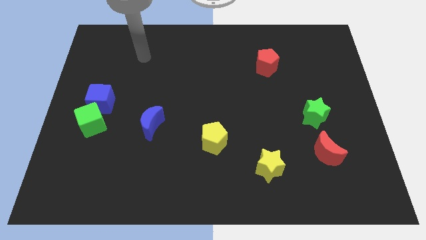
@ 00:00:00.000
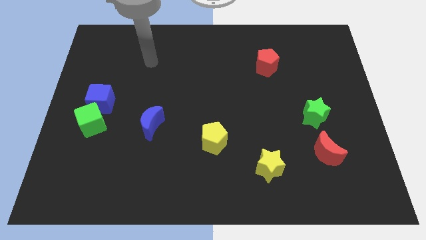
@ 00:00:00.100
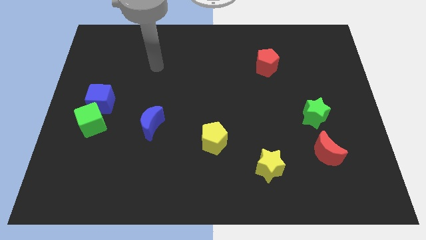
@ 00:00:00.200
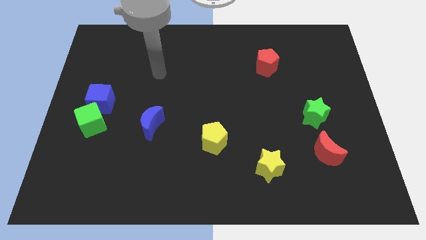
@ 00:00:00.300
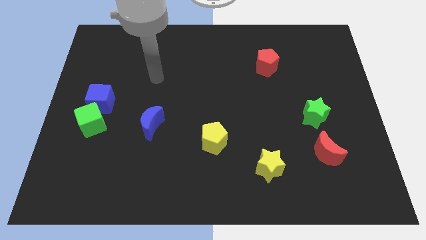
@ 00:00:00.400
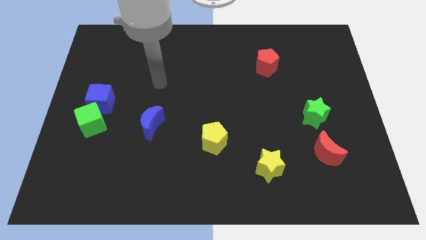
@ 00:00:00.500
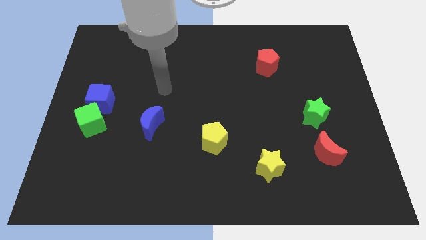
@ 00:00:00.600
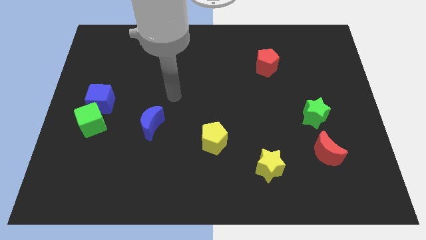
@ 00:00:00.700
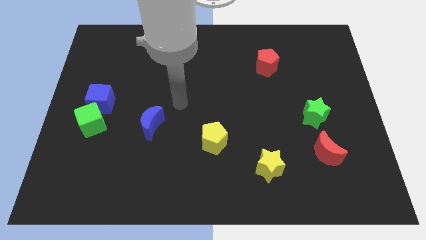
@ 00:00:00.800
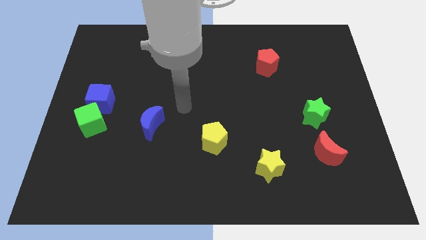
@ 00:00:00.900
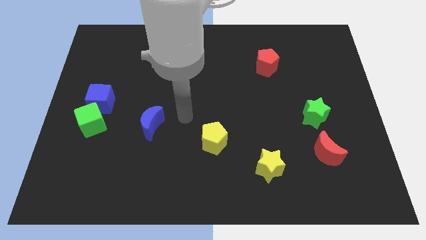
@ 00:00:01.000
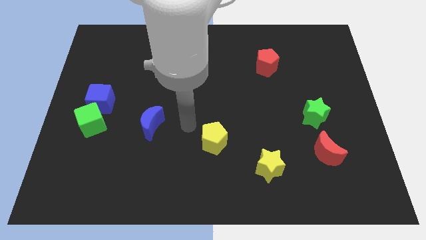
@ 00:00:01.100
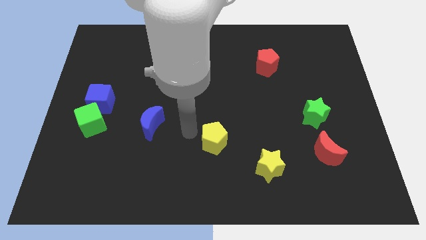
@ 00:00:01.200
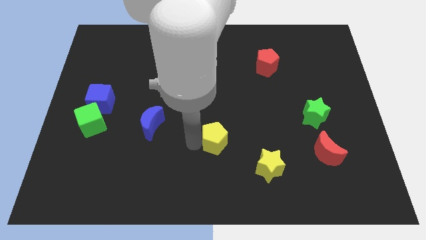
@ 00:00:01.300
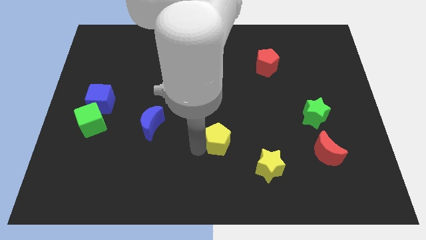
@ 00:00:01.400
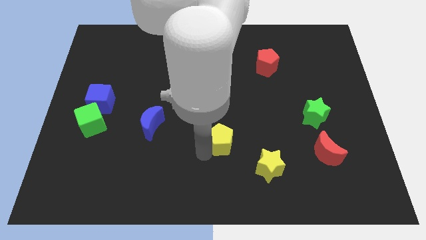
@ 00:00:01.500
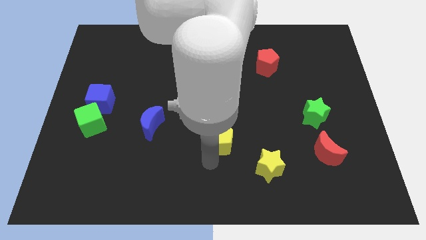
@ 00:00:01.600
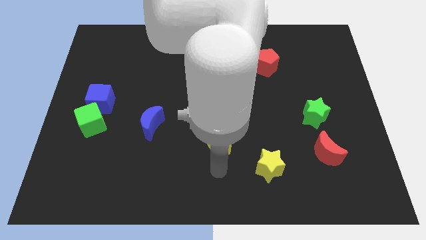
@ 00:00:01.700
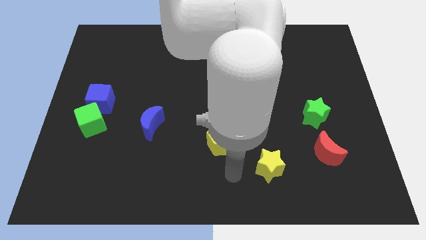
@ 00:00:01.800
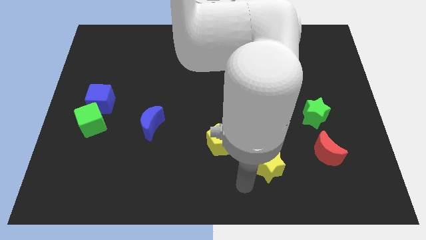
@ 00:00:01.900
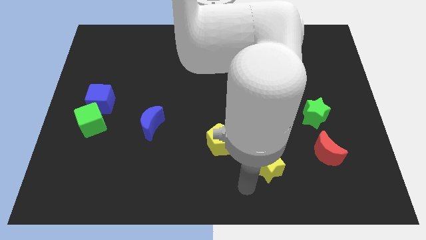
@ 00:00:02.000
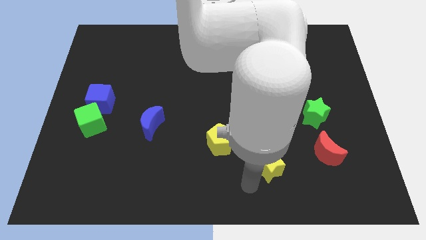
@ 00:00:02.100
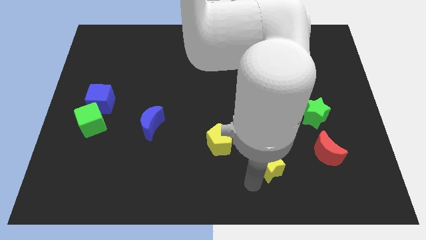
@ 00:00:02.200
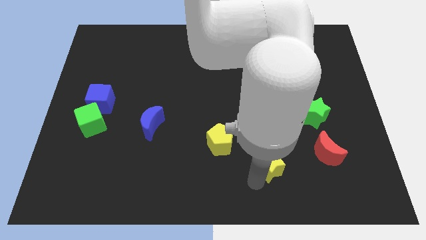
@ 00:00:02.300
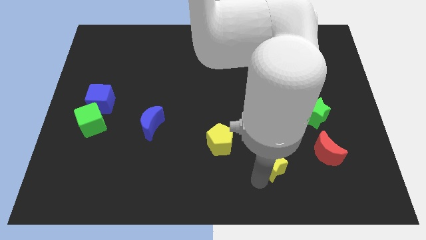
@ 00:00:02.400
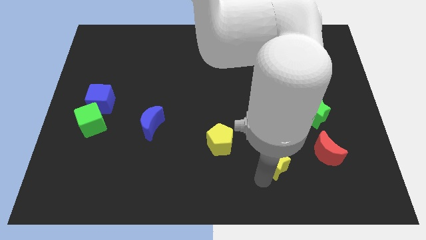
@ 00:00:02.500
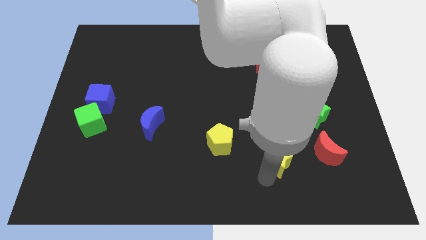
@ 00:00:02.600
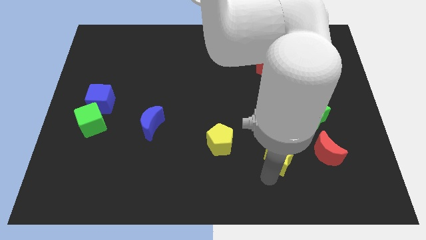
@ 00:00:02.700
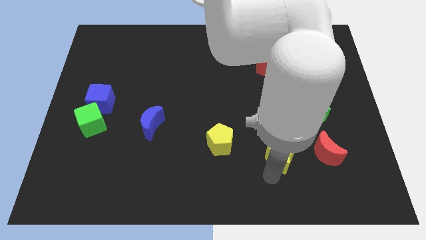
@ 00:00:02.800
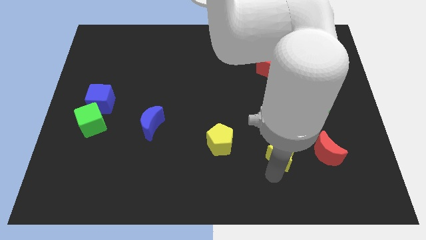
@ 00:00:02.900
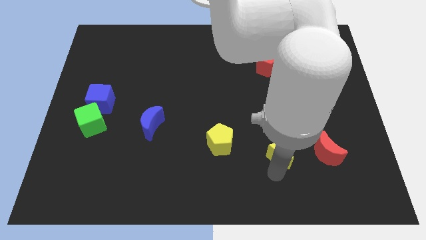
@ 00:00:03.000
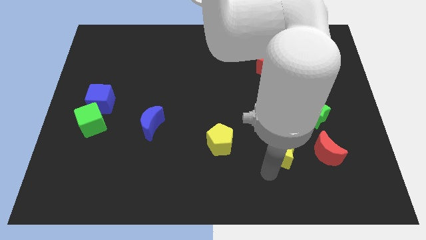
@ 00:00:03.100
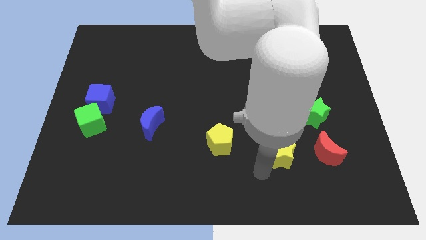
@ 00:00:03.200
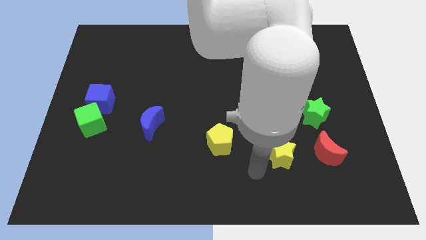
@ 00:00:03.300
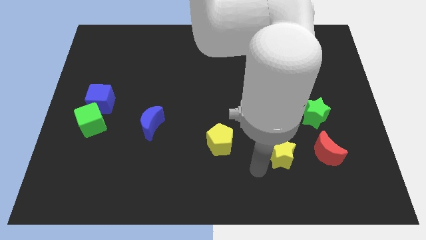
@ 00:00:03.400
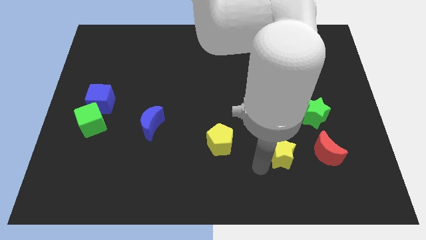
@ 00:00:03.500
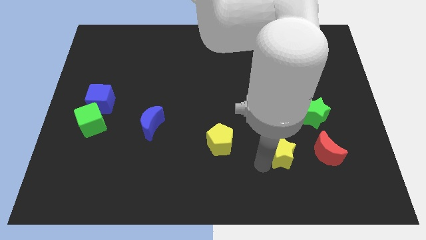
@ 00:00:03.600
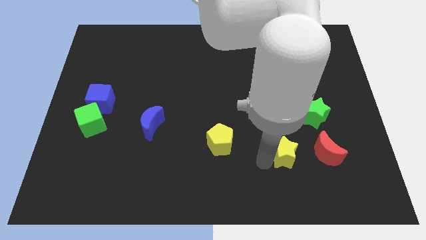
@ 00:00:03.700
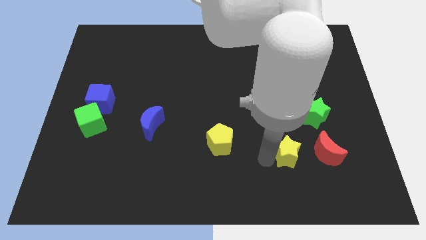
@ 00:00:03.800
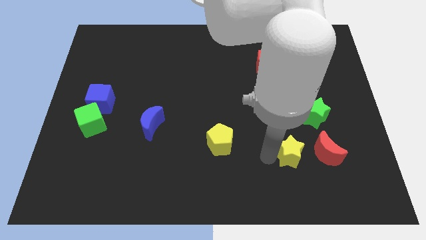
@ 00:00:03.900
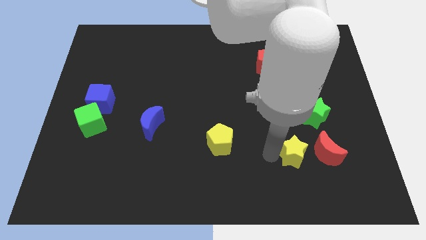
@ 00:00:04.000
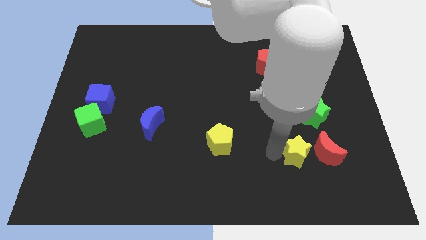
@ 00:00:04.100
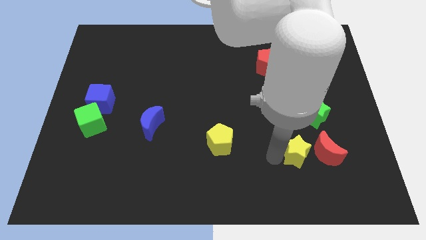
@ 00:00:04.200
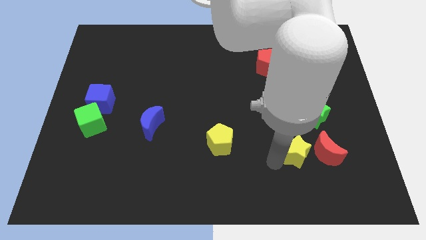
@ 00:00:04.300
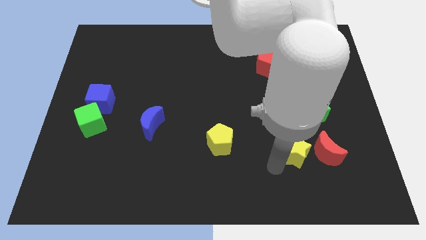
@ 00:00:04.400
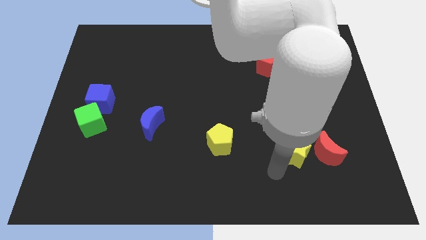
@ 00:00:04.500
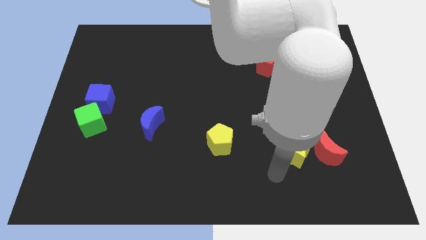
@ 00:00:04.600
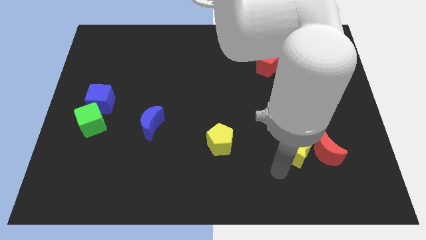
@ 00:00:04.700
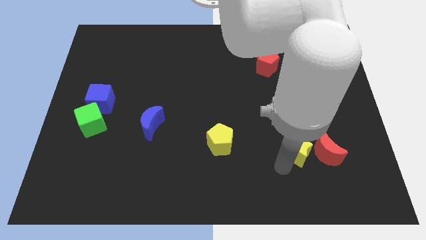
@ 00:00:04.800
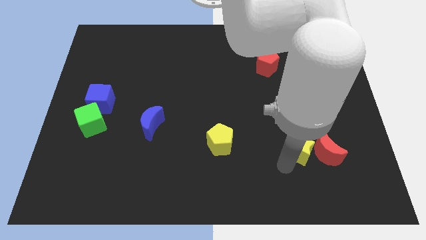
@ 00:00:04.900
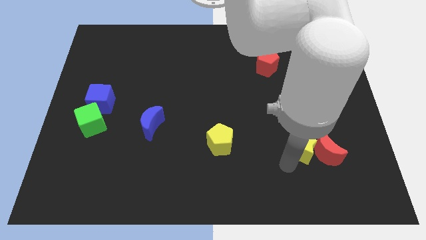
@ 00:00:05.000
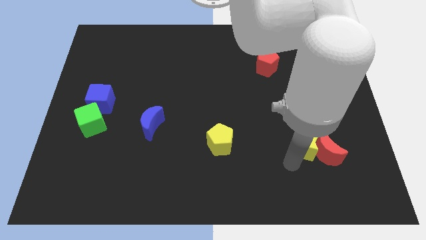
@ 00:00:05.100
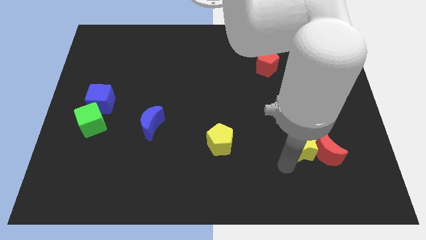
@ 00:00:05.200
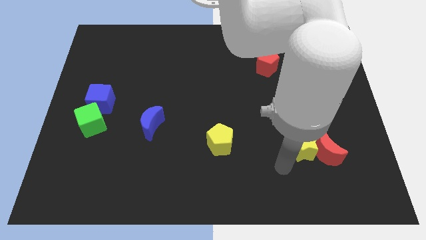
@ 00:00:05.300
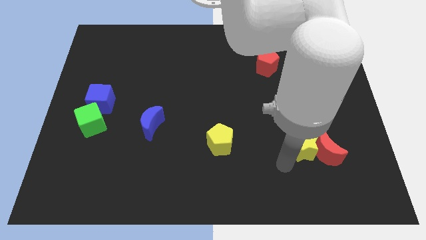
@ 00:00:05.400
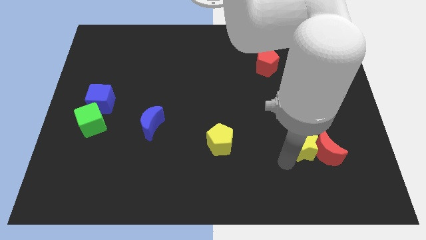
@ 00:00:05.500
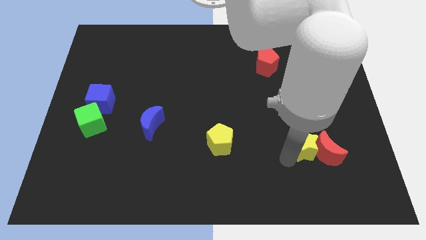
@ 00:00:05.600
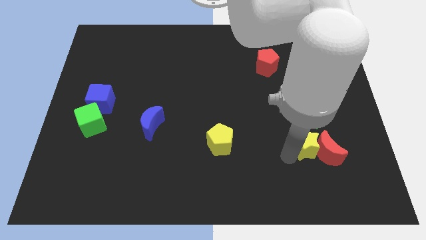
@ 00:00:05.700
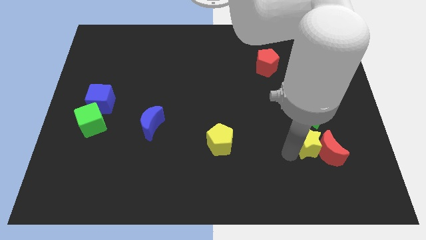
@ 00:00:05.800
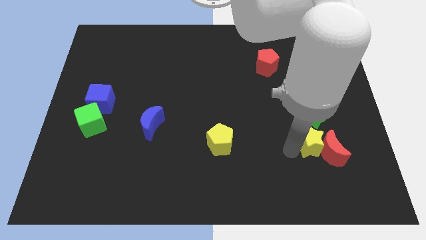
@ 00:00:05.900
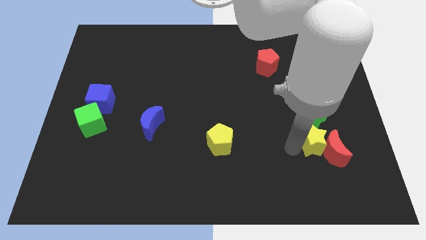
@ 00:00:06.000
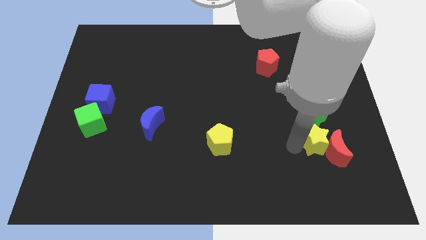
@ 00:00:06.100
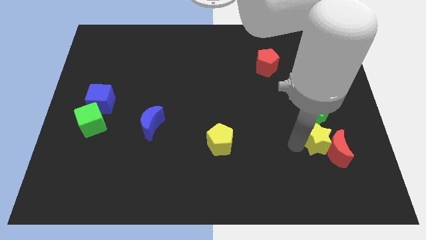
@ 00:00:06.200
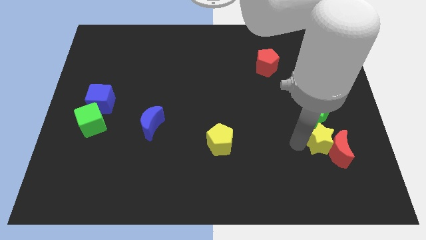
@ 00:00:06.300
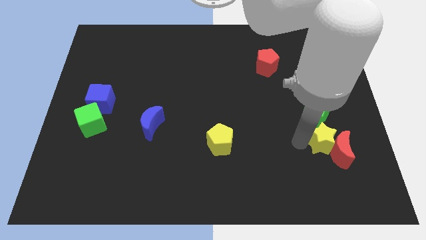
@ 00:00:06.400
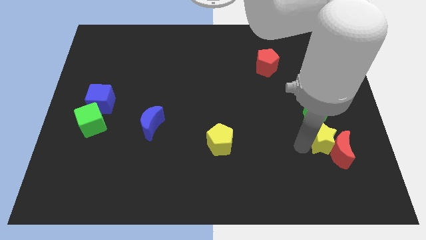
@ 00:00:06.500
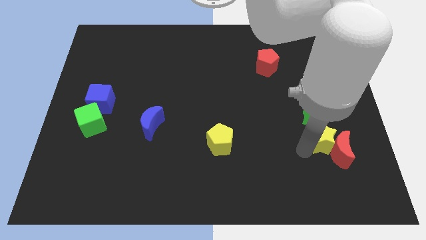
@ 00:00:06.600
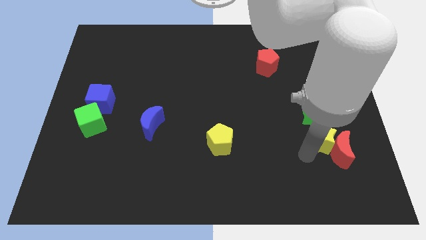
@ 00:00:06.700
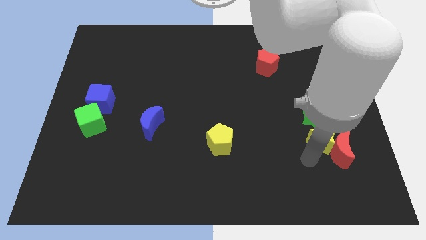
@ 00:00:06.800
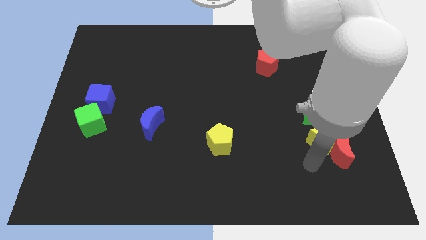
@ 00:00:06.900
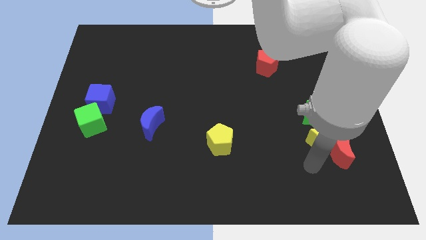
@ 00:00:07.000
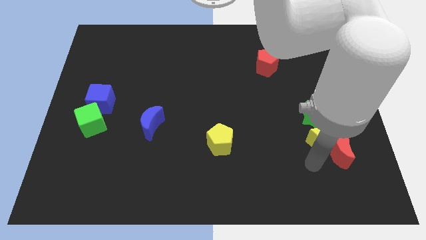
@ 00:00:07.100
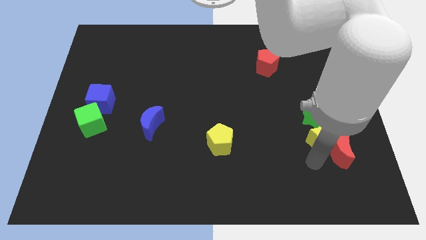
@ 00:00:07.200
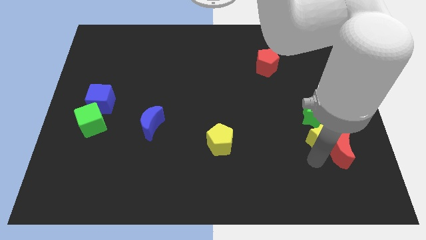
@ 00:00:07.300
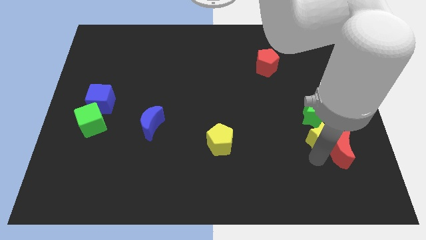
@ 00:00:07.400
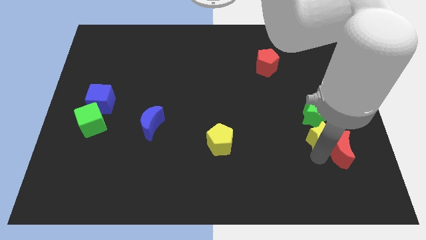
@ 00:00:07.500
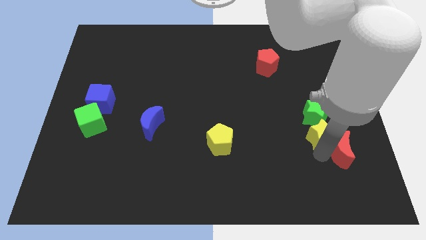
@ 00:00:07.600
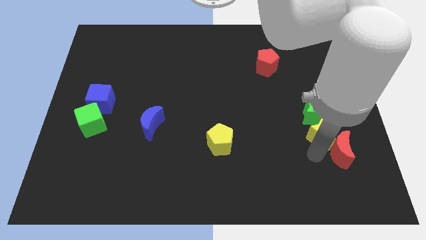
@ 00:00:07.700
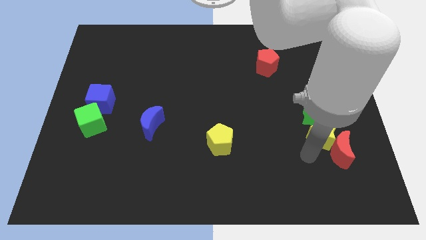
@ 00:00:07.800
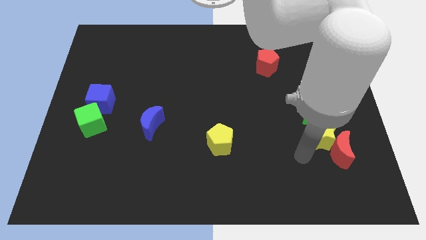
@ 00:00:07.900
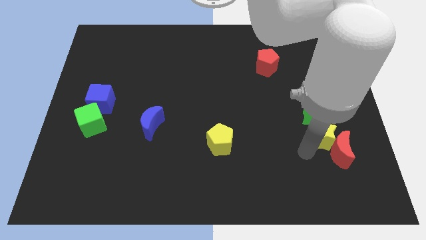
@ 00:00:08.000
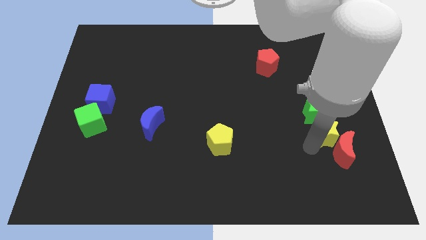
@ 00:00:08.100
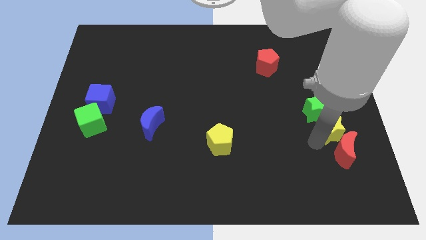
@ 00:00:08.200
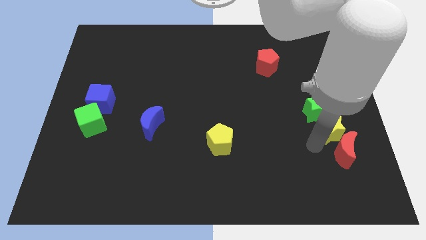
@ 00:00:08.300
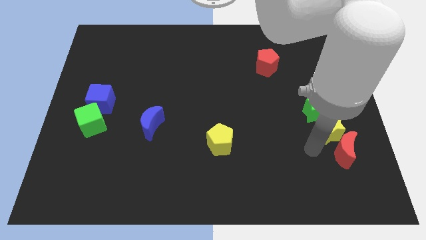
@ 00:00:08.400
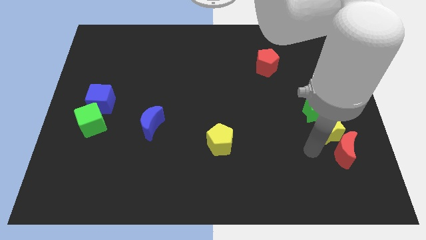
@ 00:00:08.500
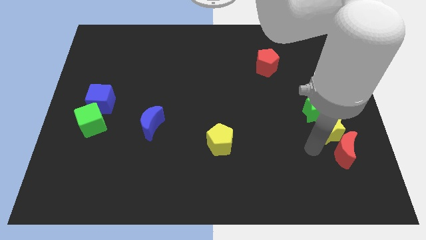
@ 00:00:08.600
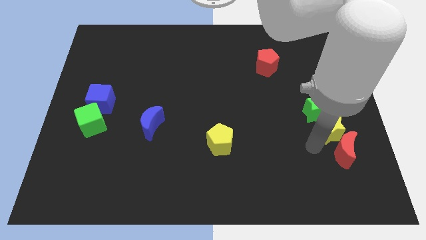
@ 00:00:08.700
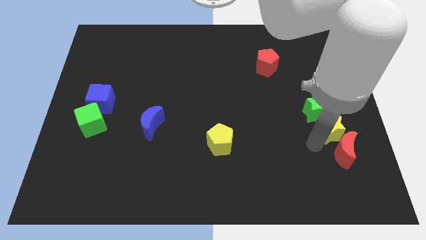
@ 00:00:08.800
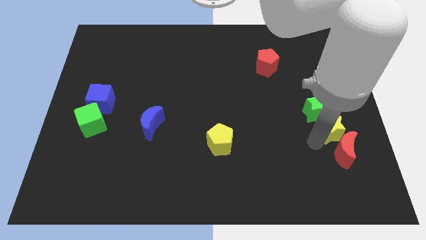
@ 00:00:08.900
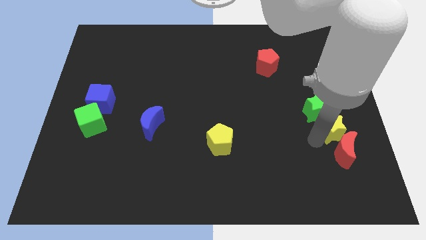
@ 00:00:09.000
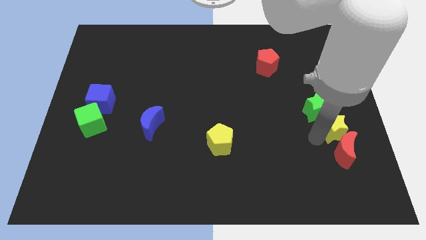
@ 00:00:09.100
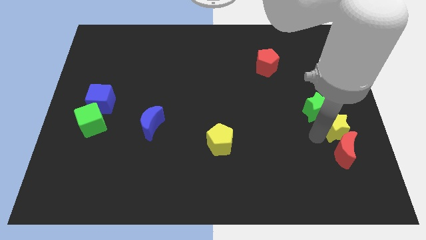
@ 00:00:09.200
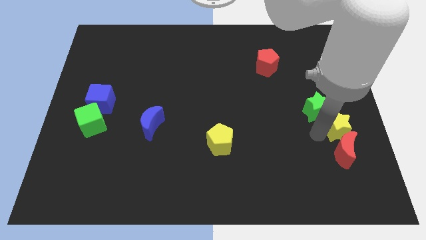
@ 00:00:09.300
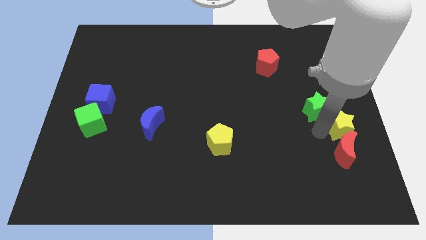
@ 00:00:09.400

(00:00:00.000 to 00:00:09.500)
slide the yellow star to the right side
